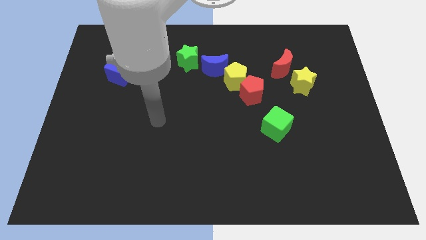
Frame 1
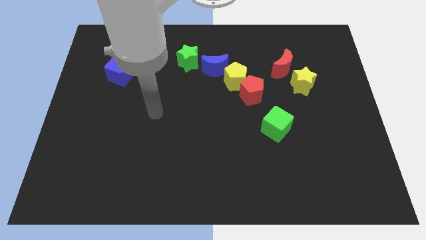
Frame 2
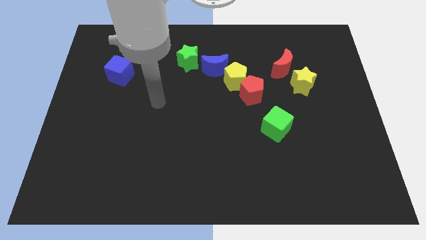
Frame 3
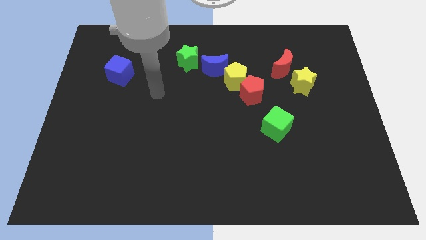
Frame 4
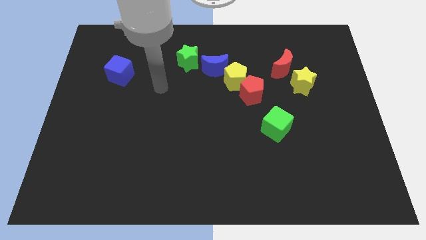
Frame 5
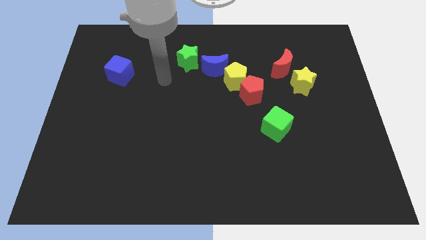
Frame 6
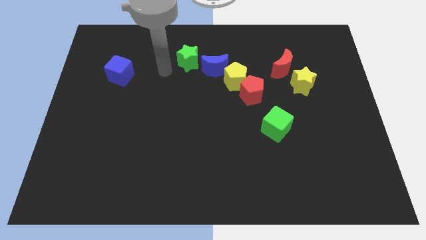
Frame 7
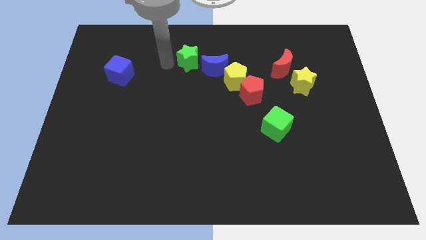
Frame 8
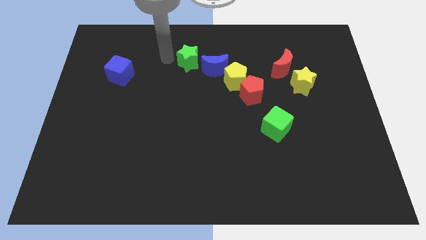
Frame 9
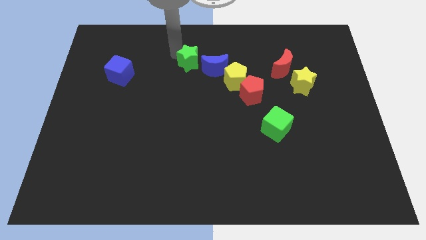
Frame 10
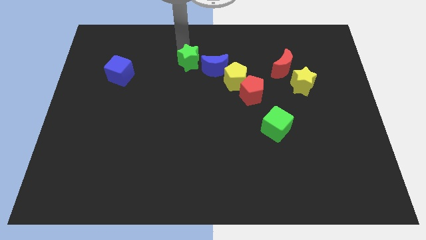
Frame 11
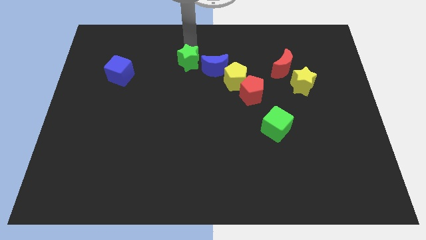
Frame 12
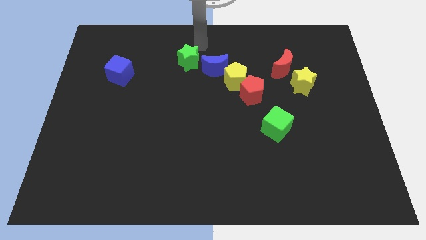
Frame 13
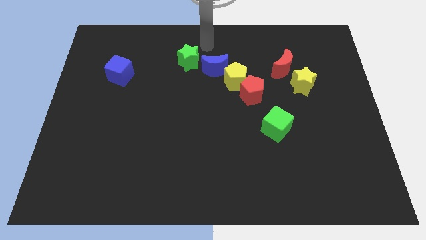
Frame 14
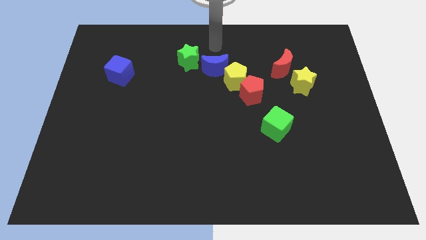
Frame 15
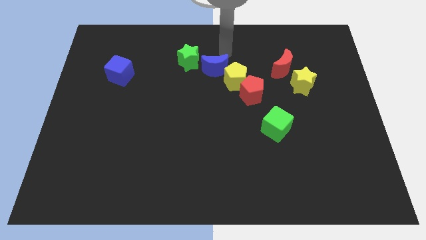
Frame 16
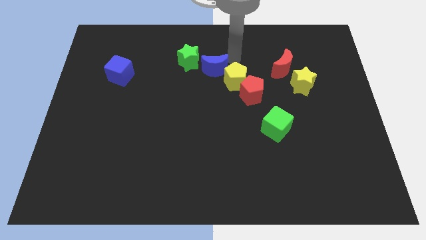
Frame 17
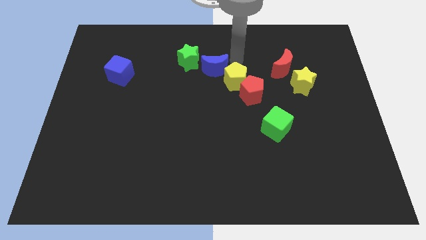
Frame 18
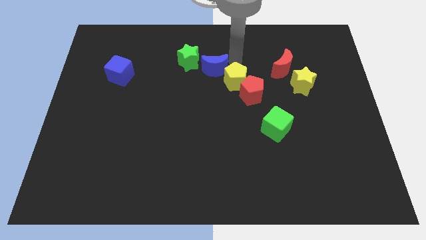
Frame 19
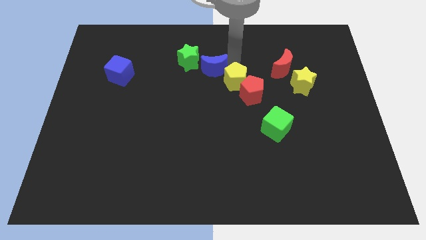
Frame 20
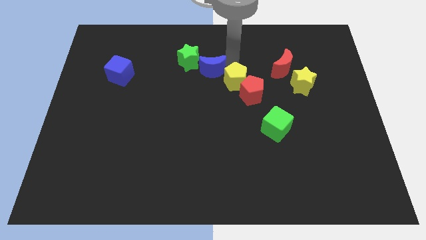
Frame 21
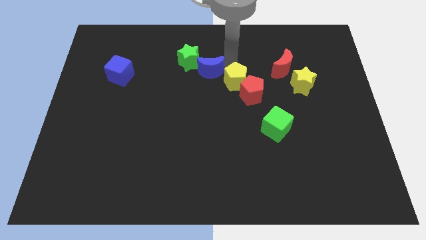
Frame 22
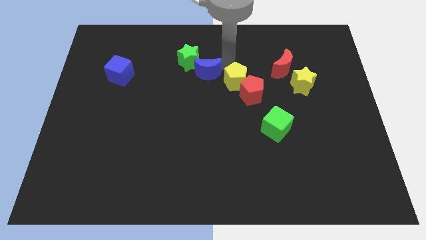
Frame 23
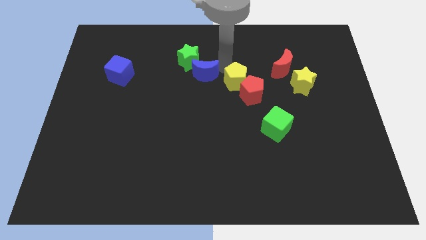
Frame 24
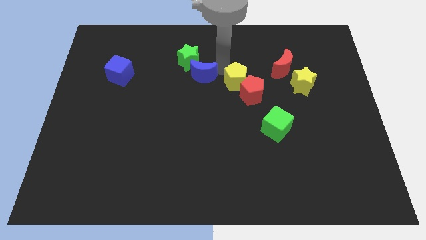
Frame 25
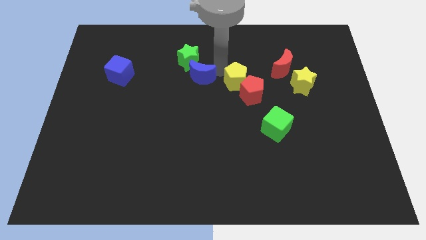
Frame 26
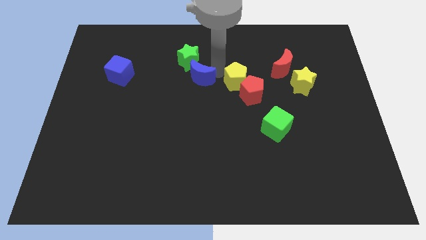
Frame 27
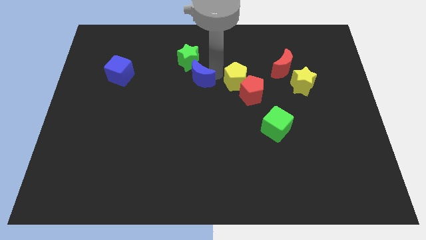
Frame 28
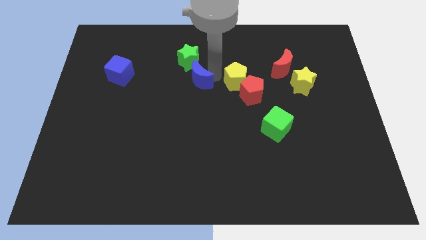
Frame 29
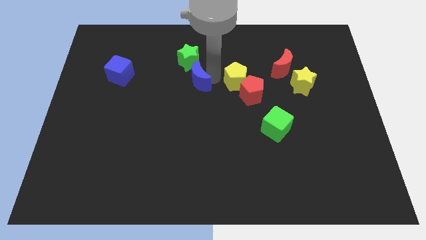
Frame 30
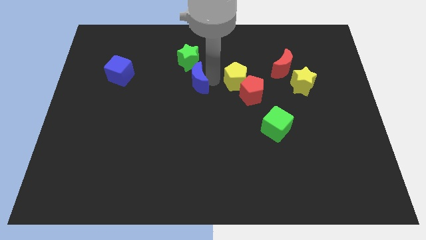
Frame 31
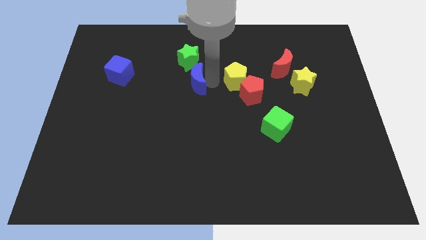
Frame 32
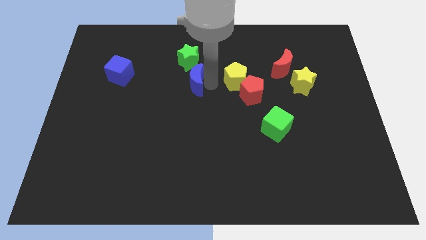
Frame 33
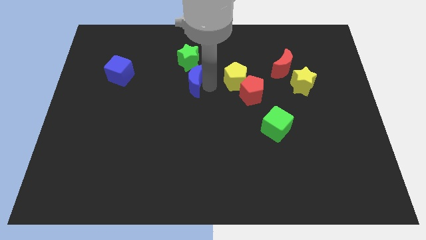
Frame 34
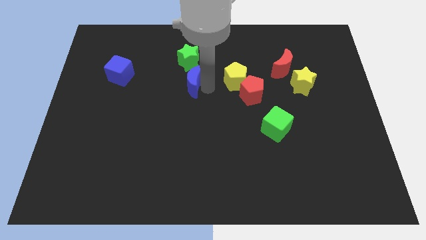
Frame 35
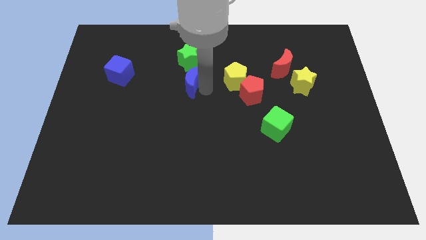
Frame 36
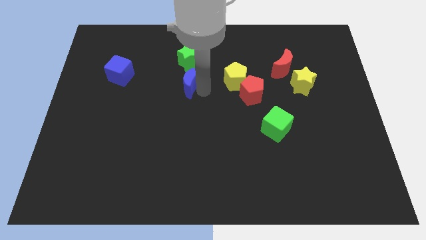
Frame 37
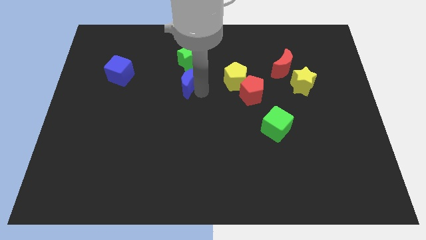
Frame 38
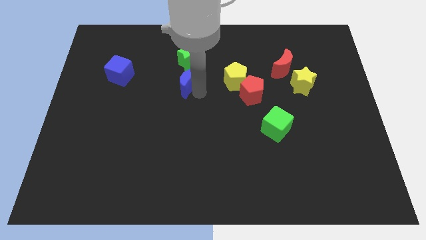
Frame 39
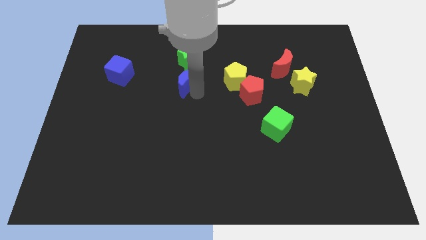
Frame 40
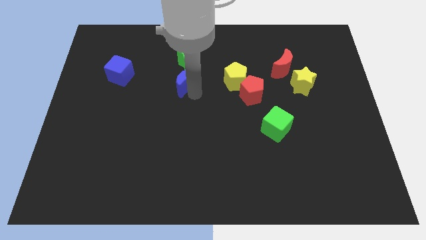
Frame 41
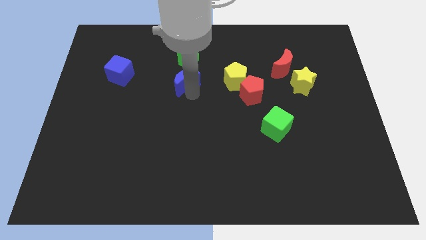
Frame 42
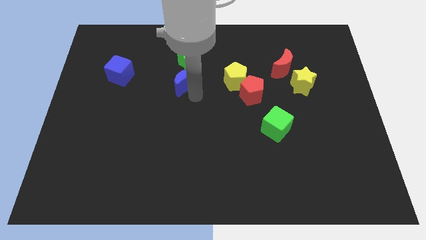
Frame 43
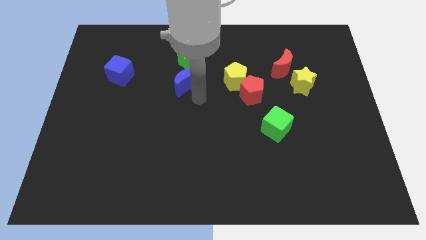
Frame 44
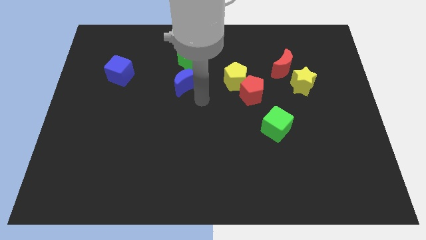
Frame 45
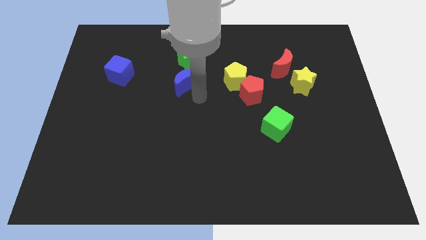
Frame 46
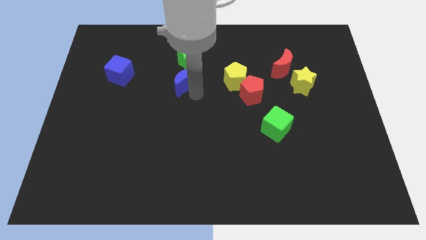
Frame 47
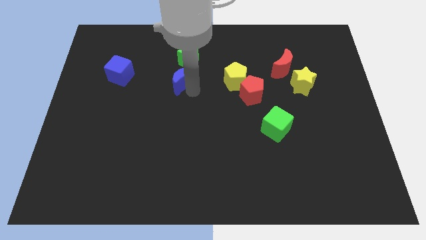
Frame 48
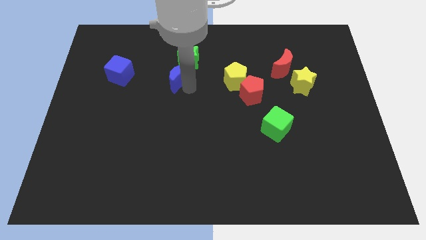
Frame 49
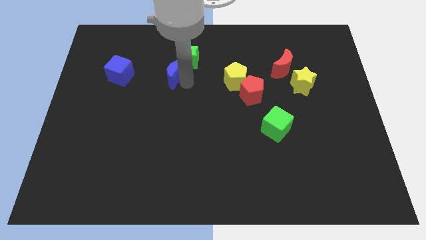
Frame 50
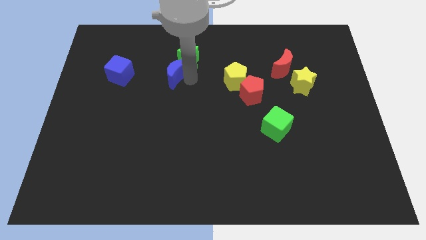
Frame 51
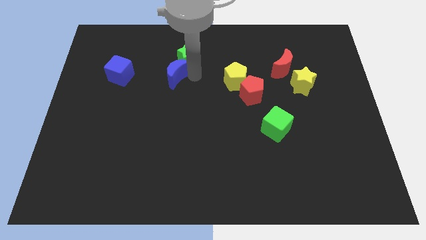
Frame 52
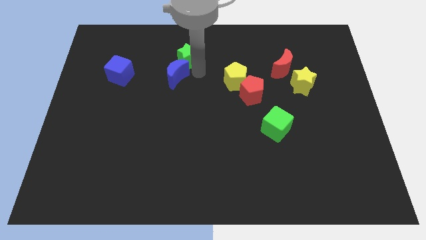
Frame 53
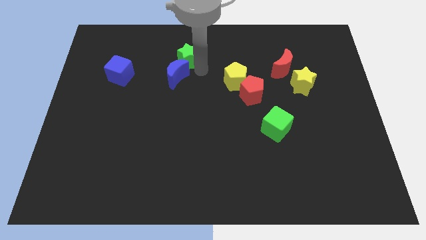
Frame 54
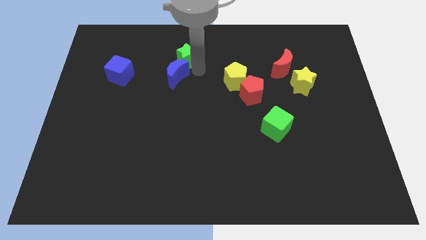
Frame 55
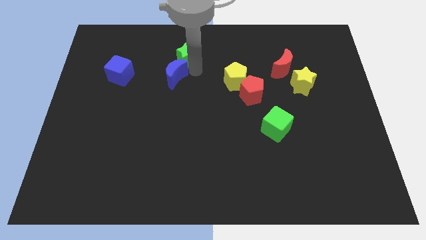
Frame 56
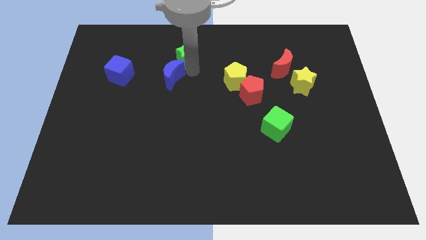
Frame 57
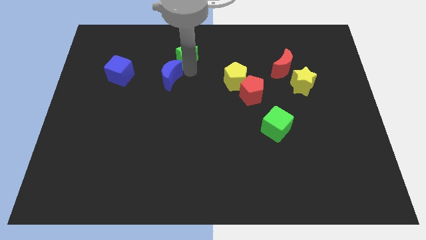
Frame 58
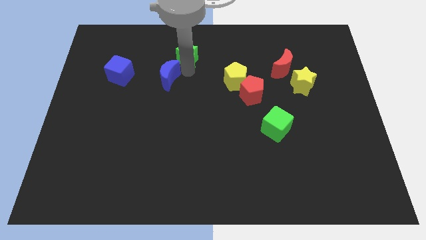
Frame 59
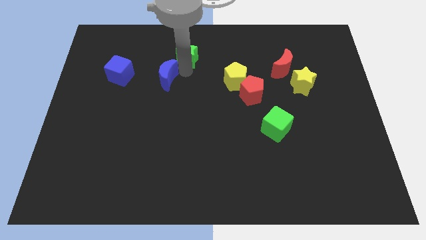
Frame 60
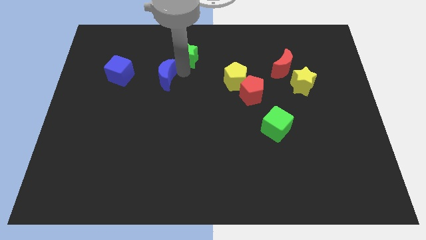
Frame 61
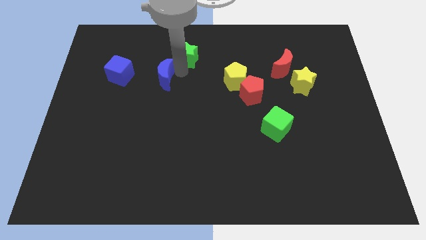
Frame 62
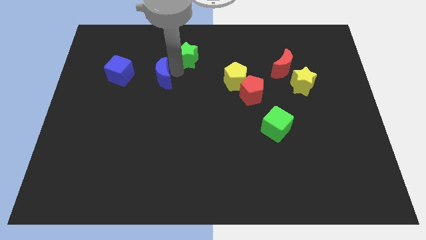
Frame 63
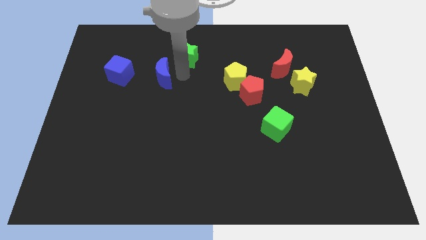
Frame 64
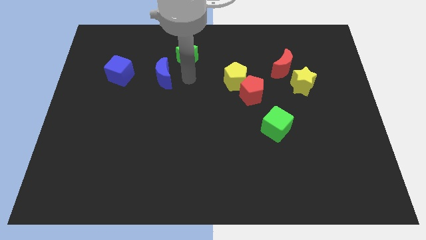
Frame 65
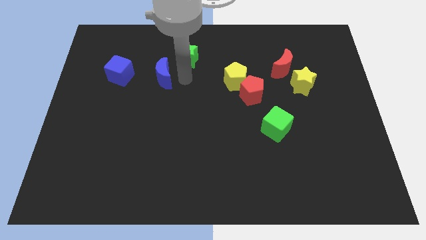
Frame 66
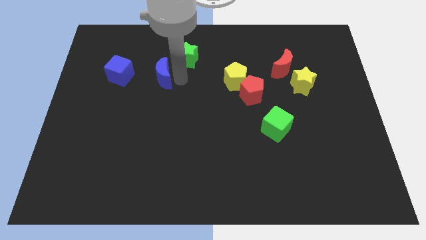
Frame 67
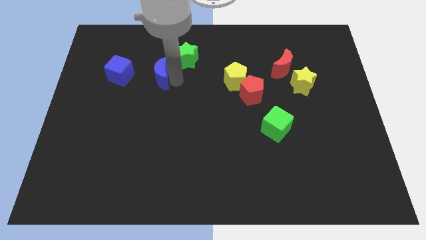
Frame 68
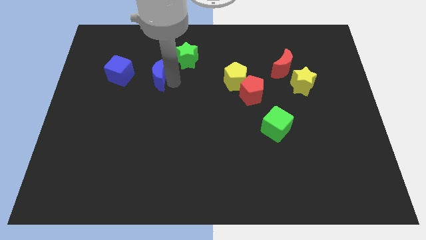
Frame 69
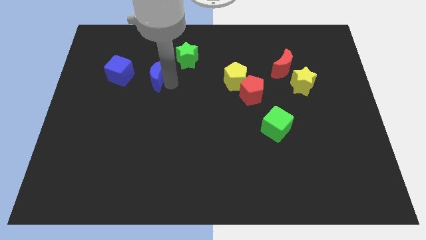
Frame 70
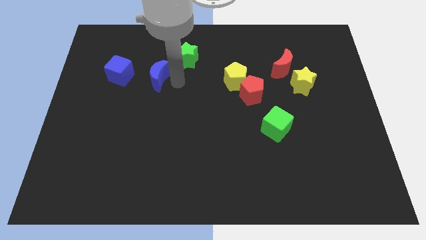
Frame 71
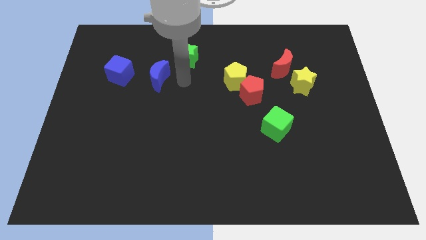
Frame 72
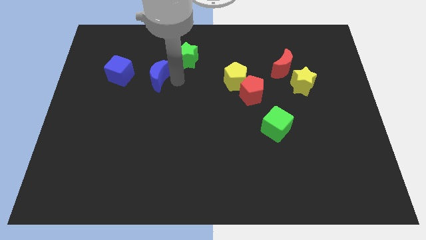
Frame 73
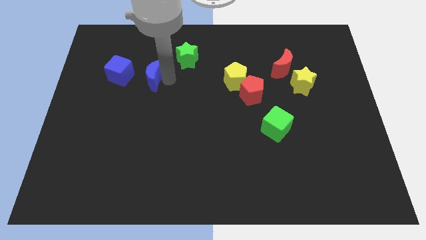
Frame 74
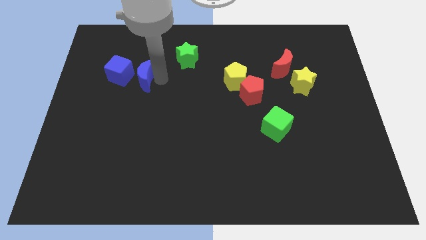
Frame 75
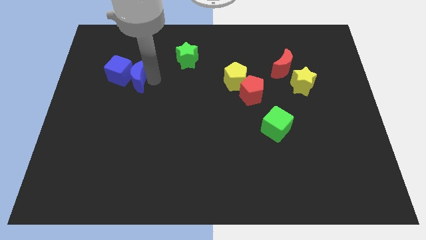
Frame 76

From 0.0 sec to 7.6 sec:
slide the blue moon next to the blue cube
